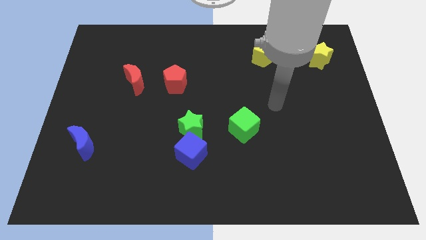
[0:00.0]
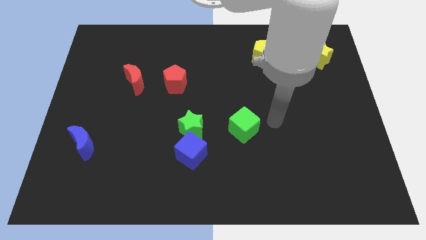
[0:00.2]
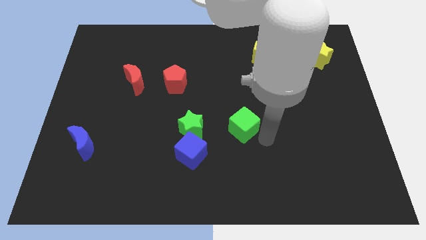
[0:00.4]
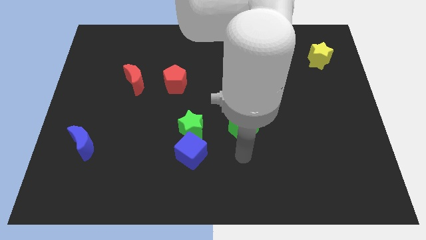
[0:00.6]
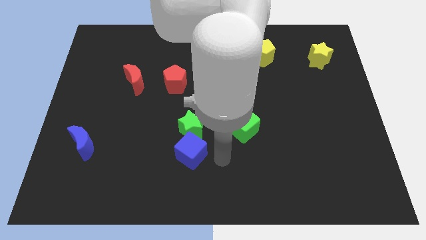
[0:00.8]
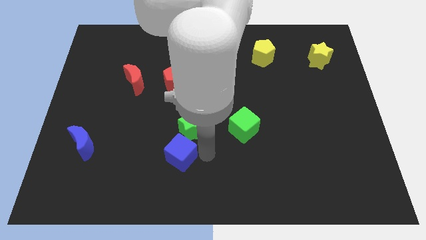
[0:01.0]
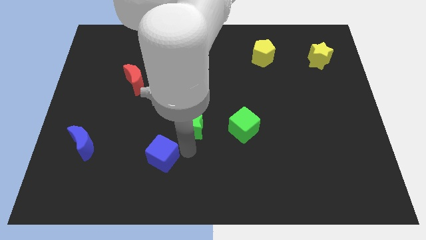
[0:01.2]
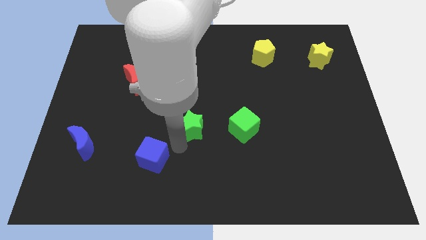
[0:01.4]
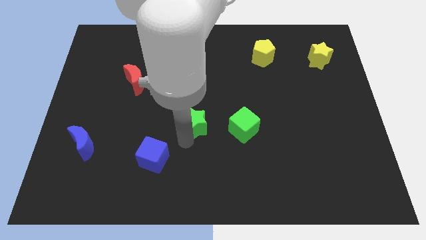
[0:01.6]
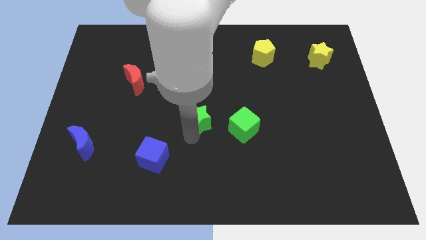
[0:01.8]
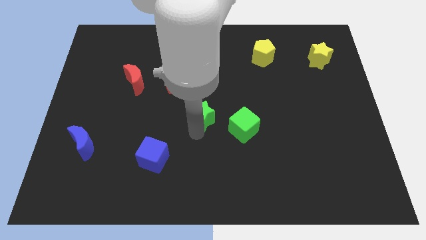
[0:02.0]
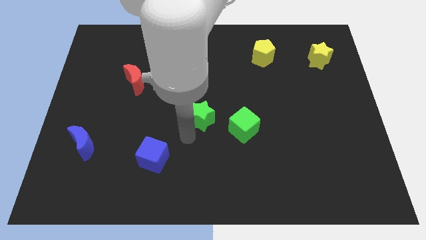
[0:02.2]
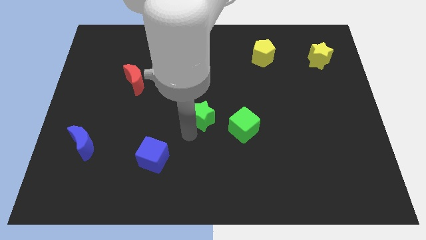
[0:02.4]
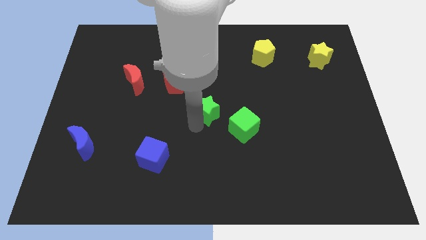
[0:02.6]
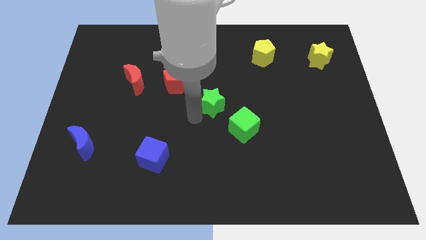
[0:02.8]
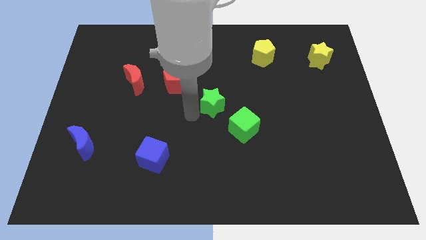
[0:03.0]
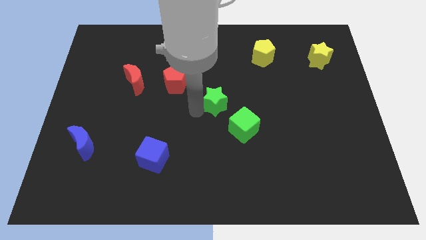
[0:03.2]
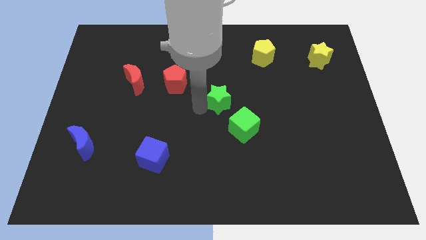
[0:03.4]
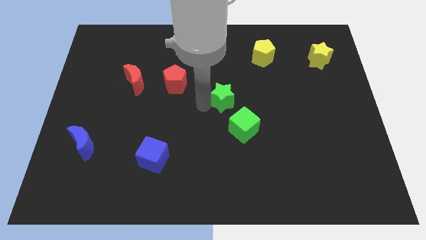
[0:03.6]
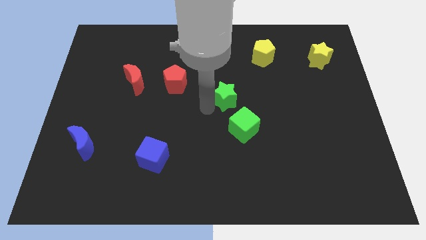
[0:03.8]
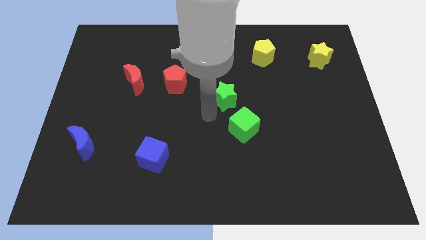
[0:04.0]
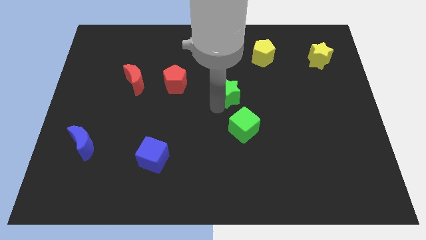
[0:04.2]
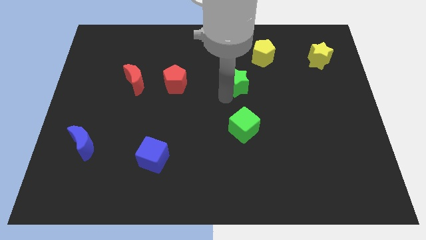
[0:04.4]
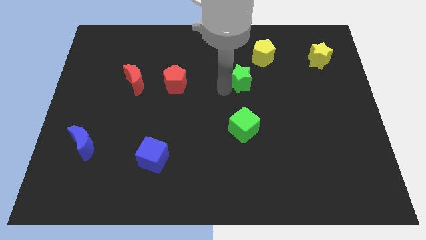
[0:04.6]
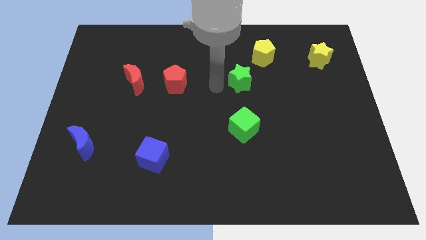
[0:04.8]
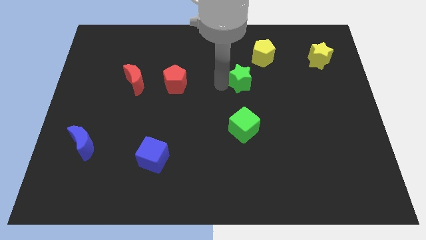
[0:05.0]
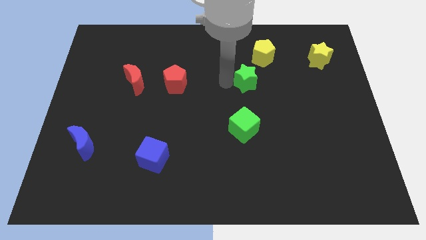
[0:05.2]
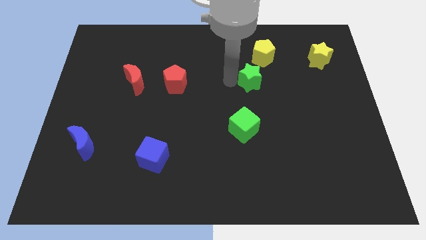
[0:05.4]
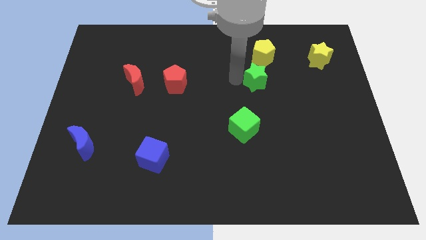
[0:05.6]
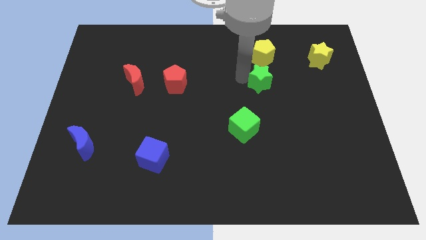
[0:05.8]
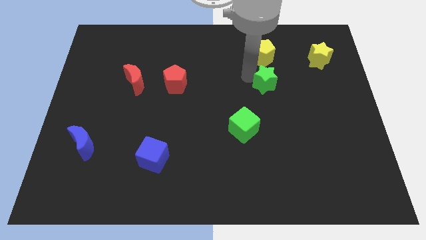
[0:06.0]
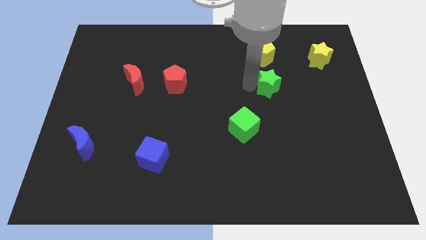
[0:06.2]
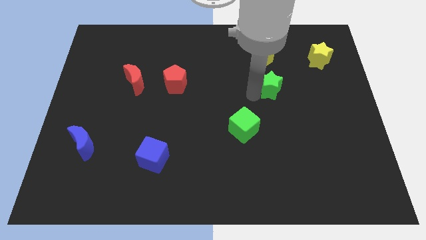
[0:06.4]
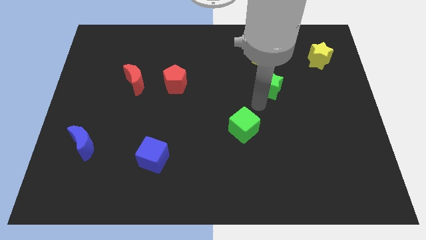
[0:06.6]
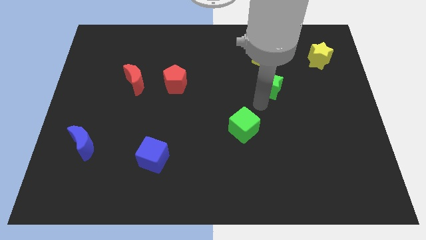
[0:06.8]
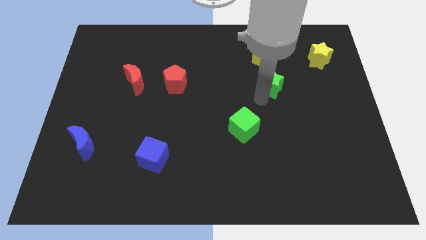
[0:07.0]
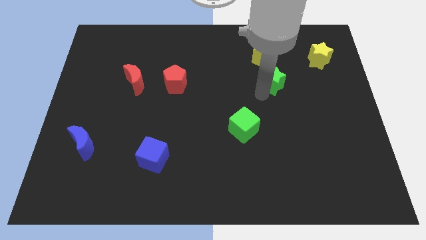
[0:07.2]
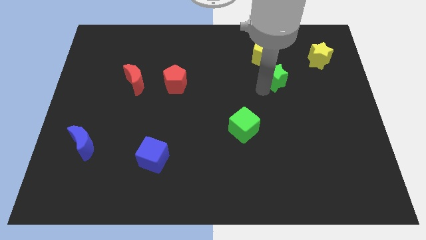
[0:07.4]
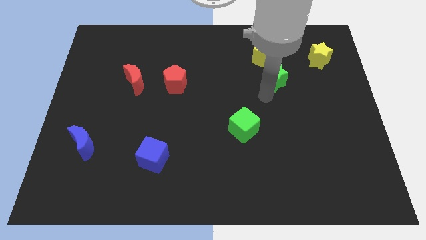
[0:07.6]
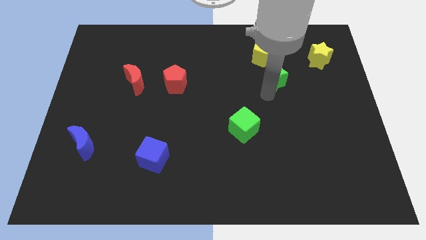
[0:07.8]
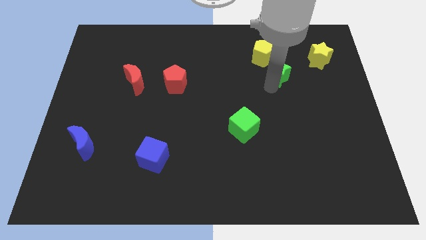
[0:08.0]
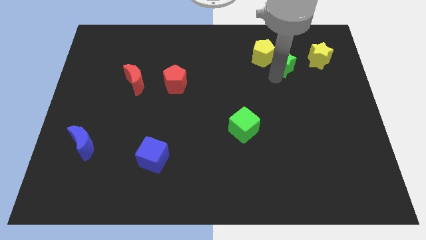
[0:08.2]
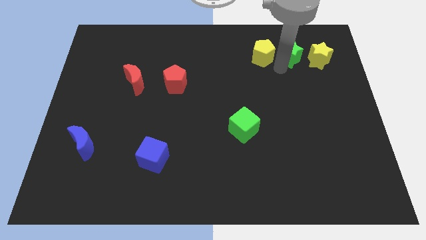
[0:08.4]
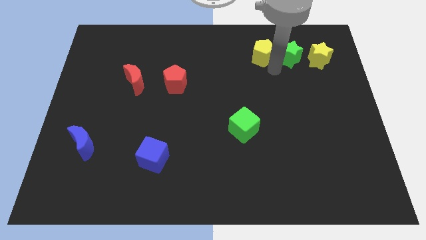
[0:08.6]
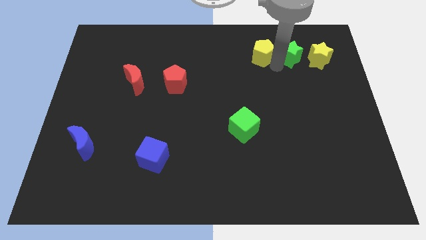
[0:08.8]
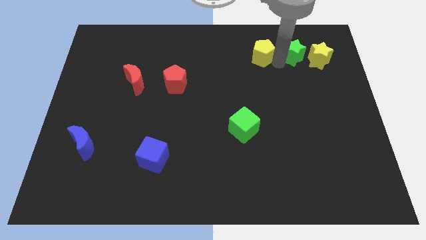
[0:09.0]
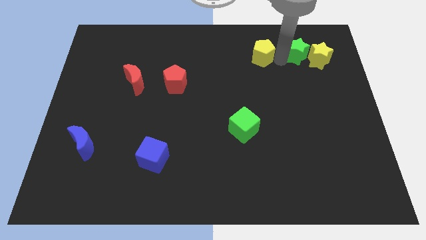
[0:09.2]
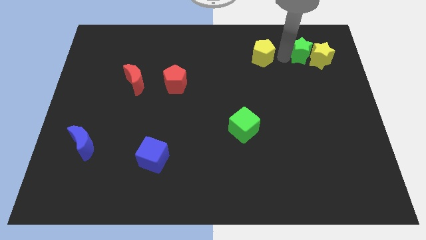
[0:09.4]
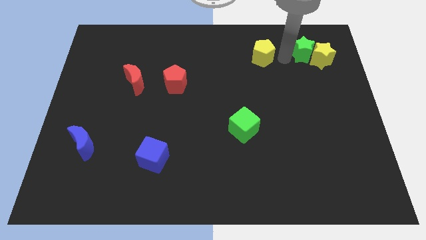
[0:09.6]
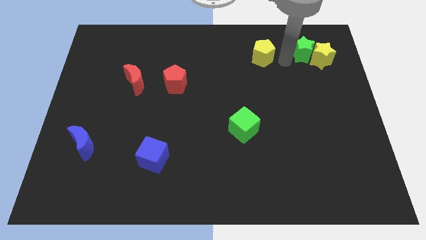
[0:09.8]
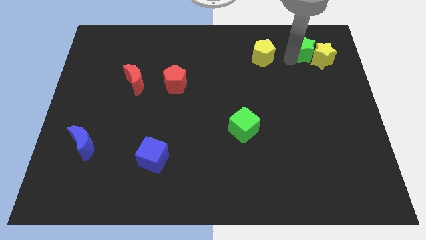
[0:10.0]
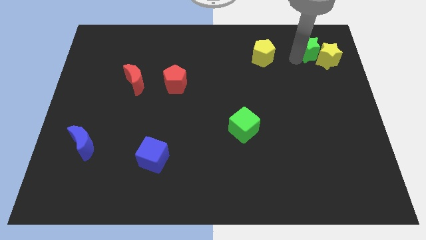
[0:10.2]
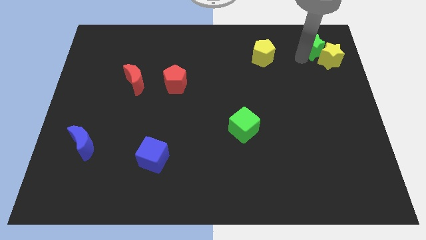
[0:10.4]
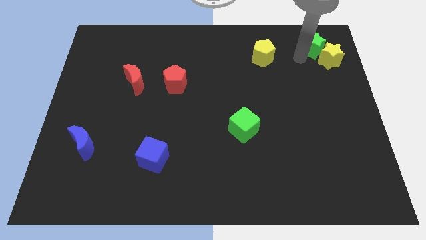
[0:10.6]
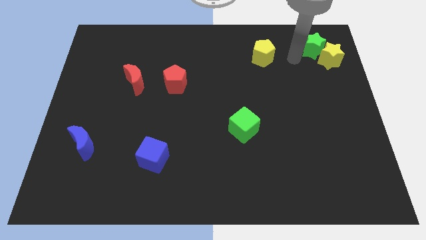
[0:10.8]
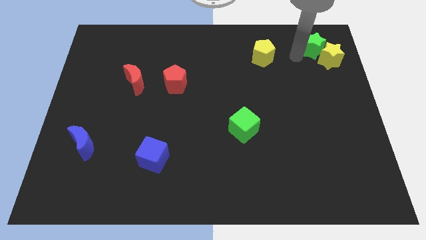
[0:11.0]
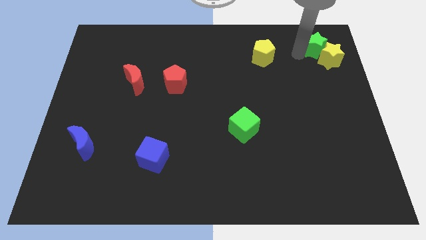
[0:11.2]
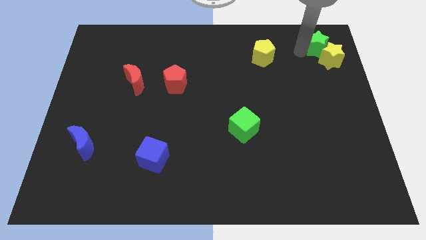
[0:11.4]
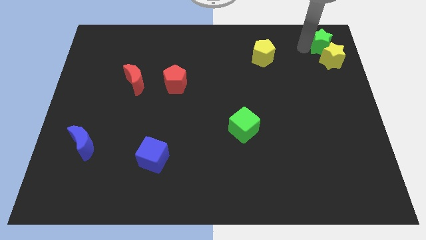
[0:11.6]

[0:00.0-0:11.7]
put the green star to the top right
